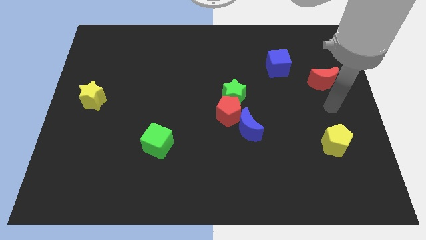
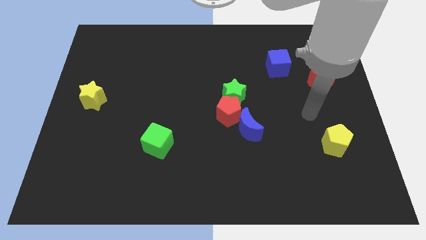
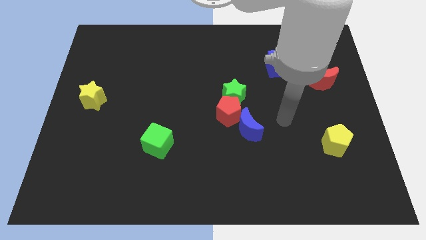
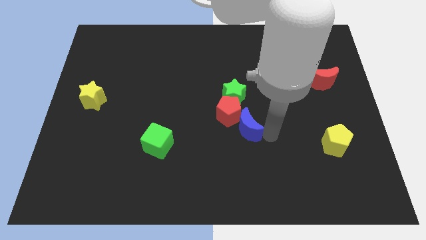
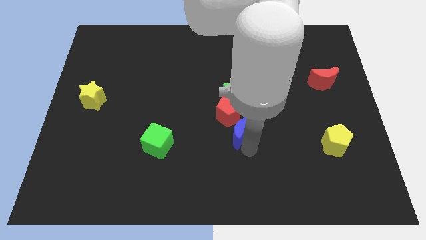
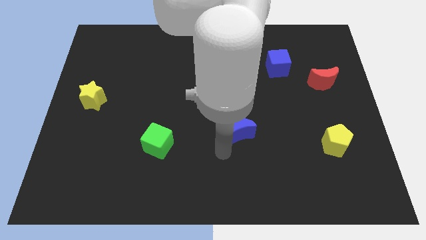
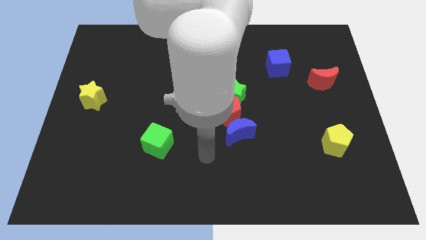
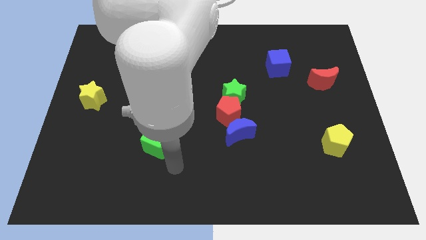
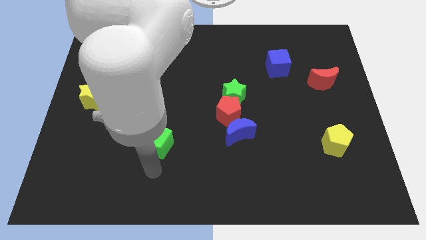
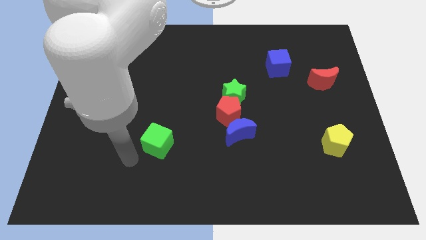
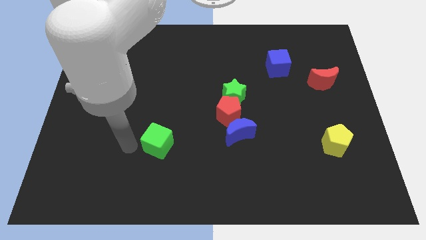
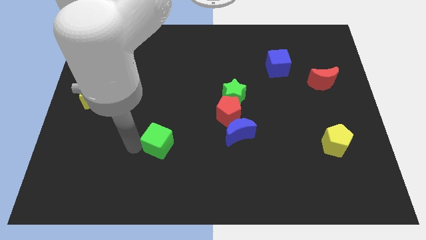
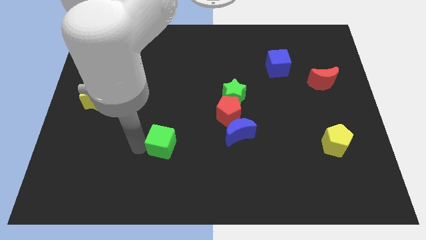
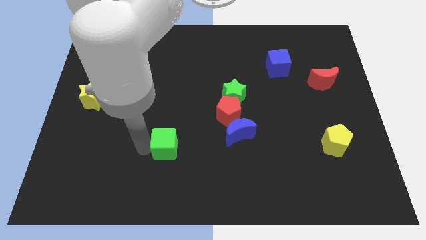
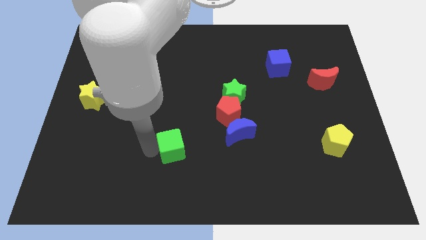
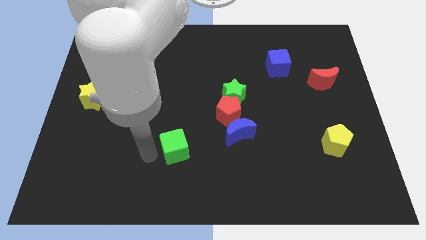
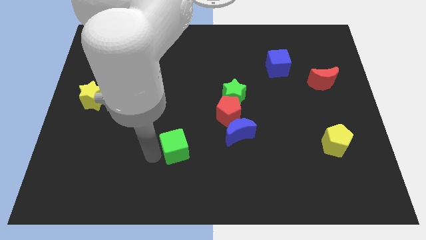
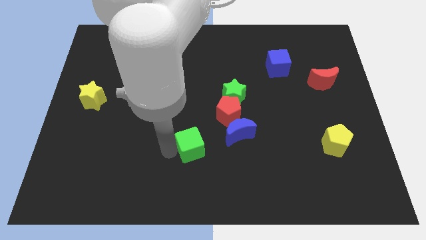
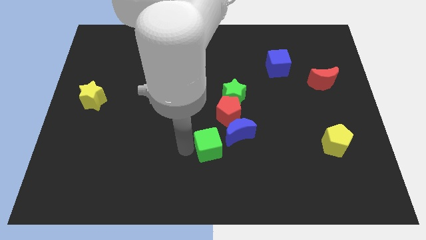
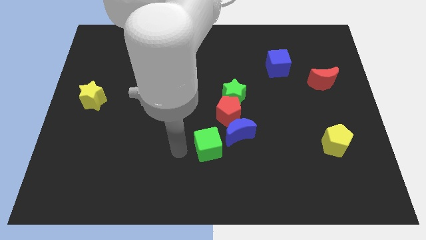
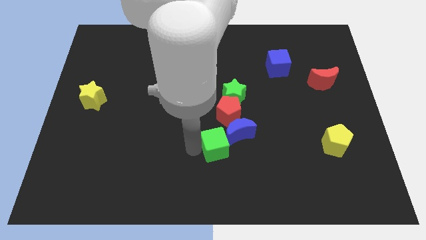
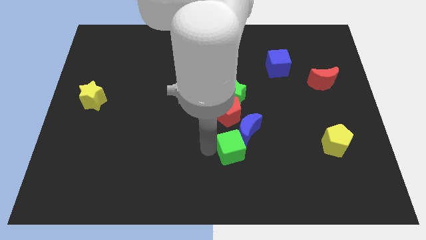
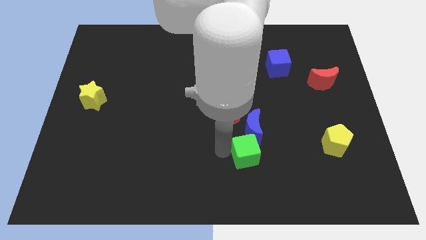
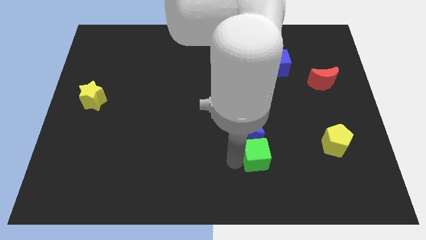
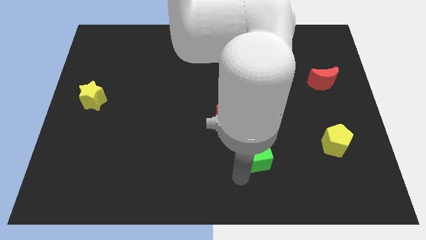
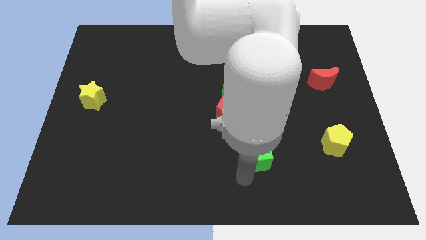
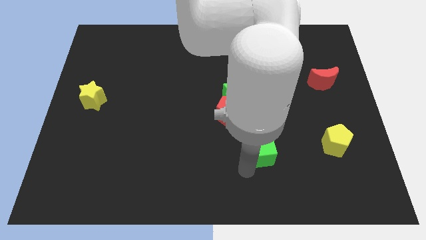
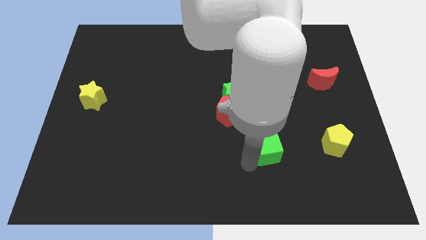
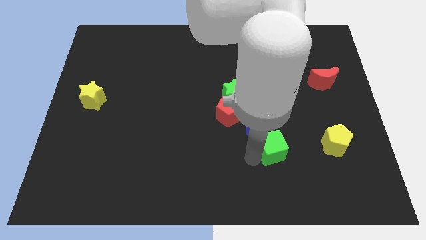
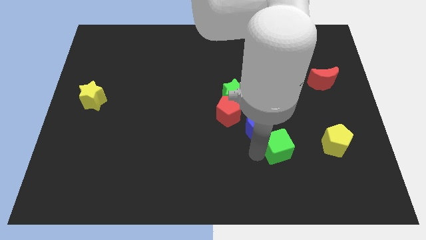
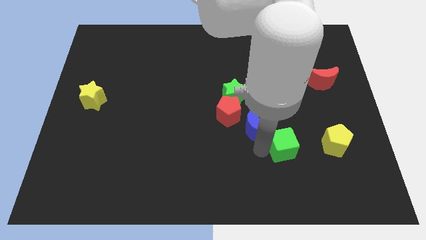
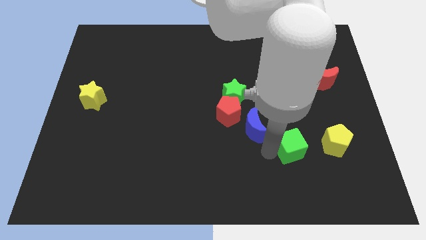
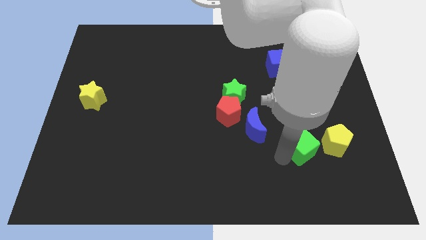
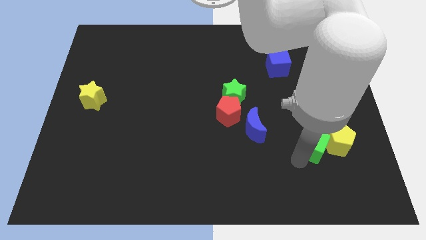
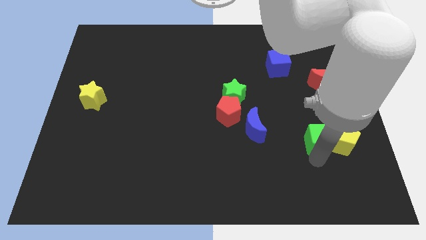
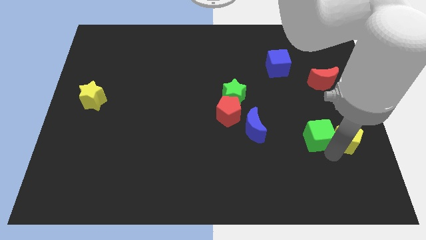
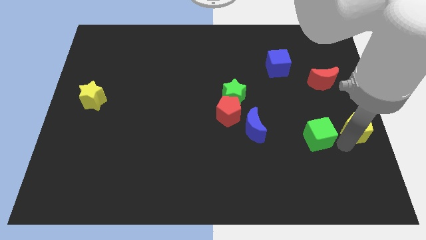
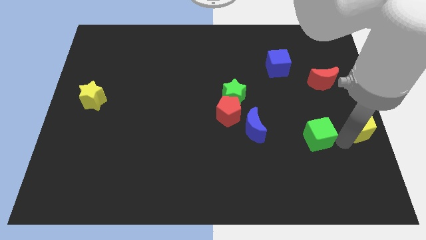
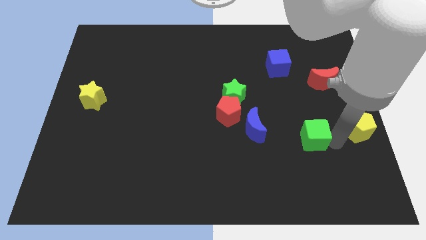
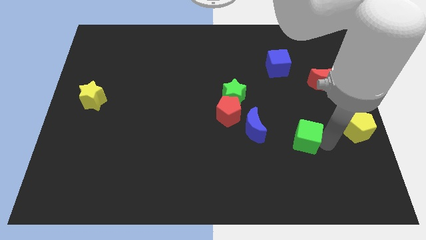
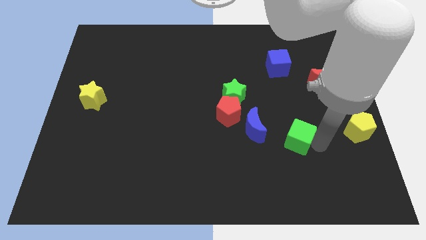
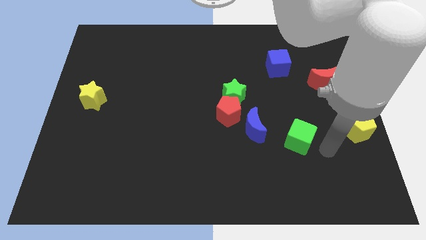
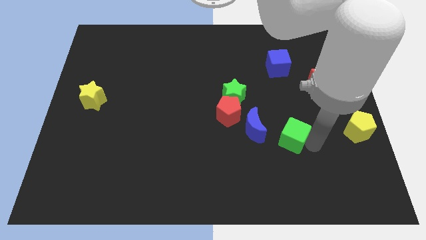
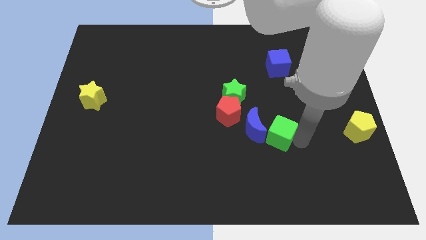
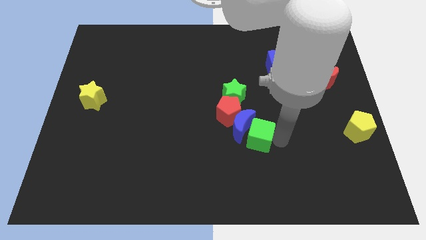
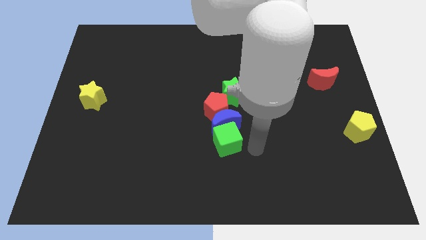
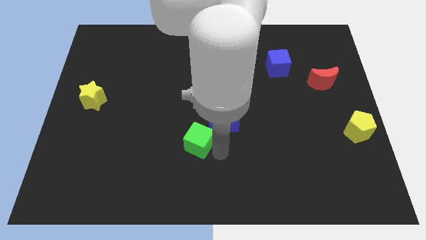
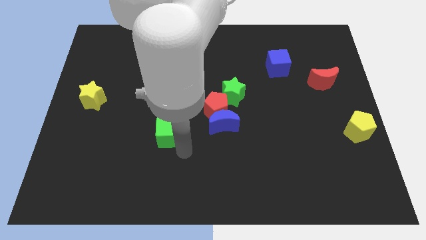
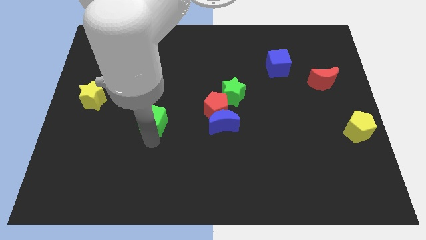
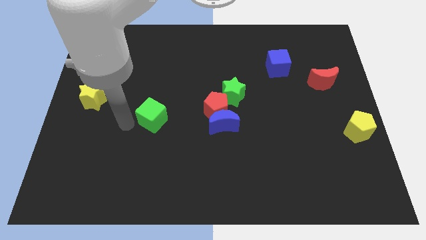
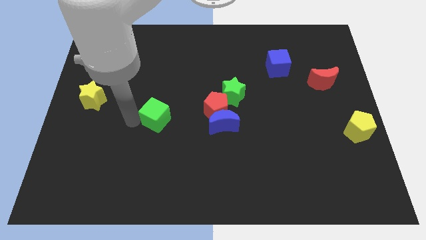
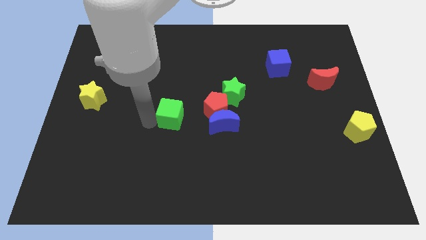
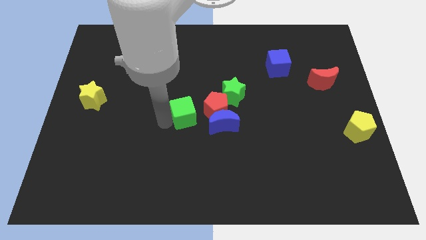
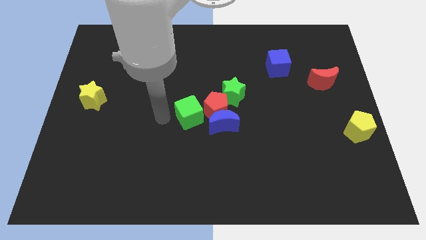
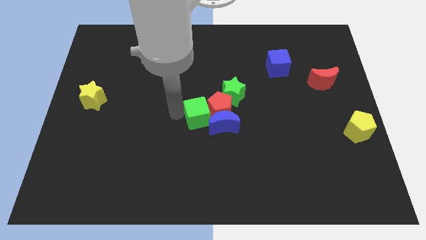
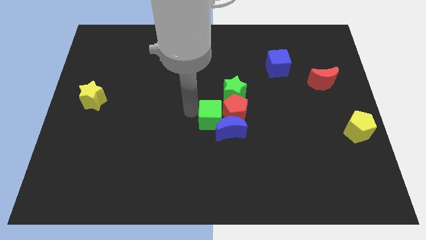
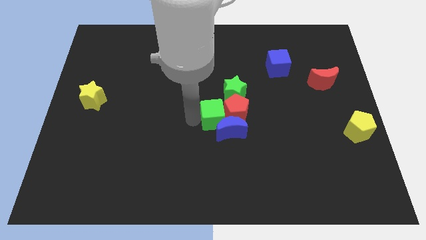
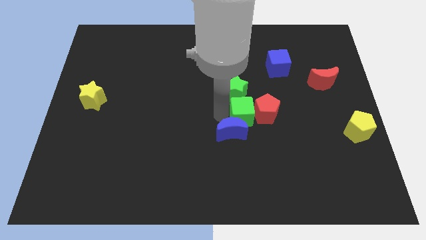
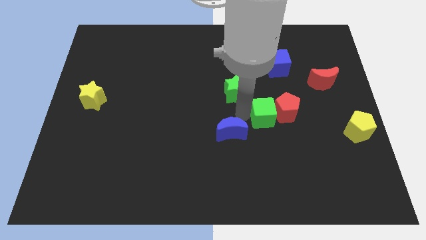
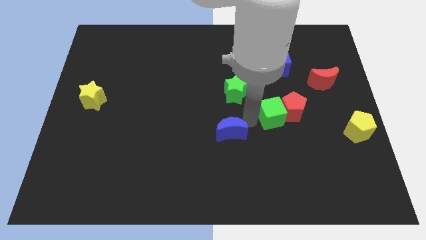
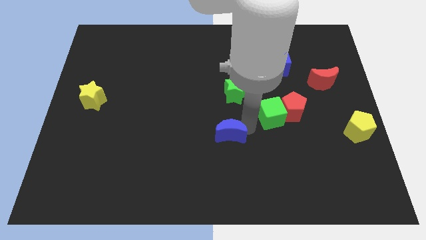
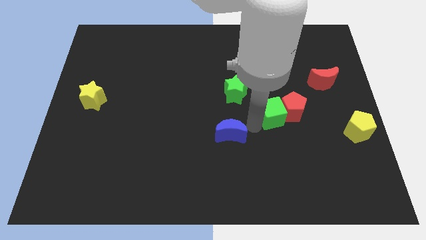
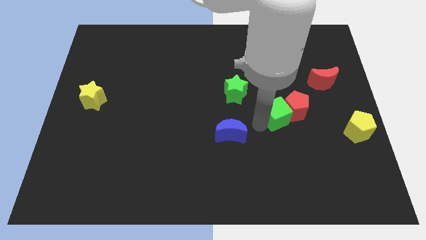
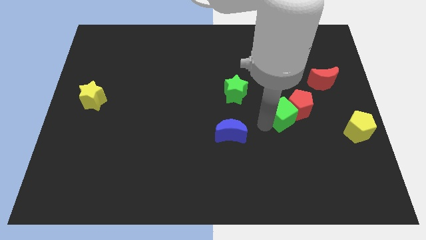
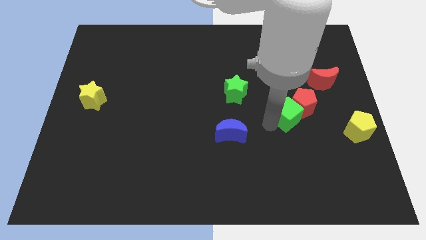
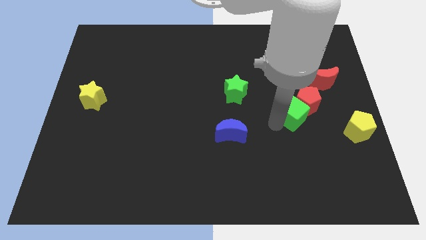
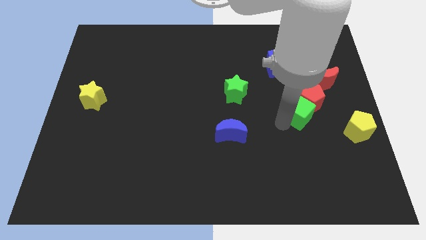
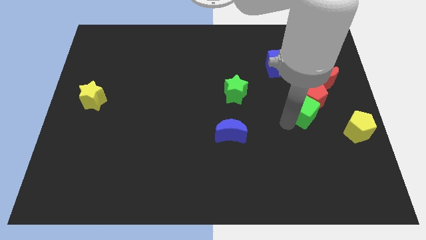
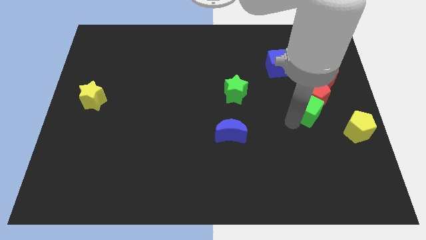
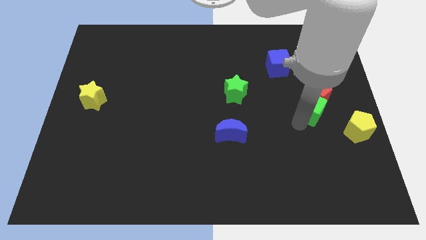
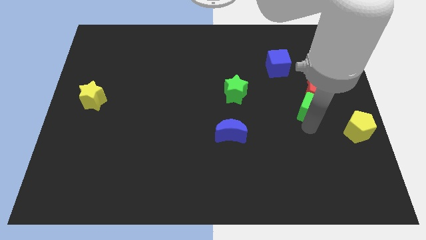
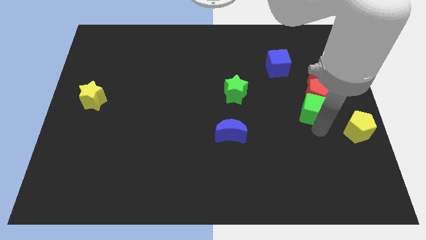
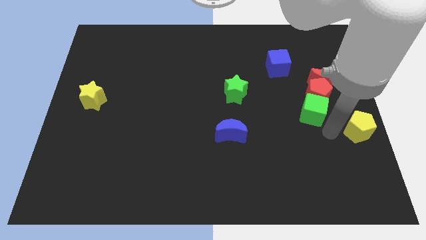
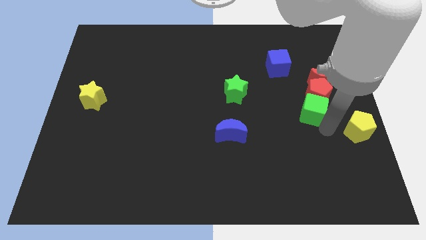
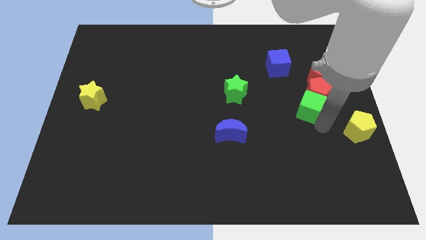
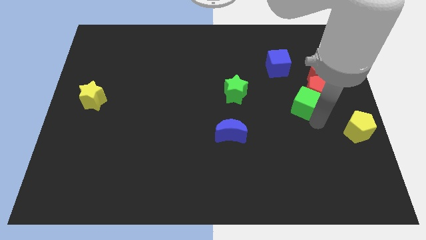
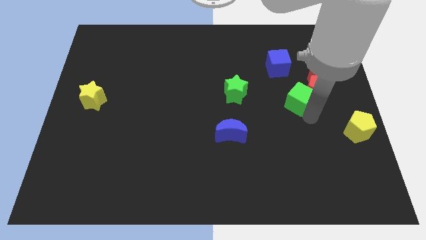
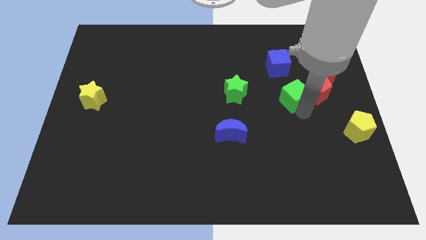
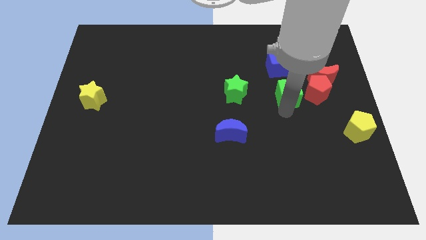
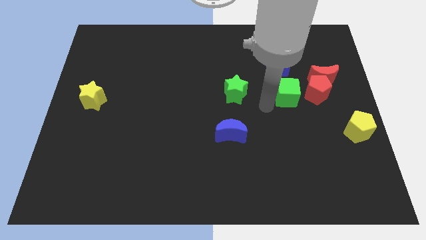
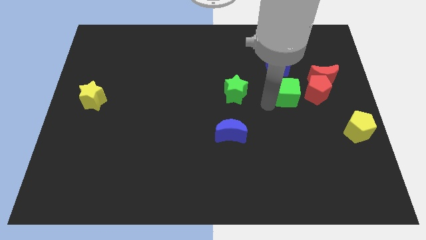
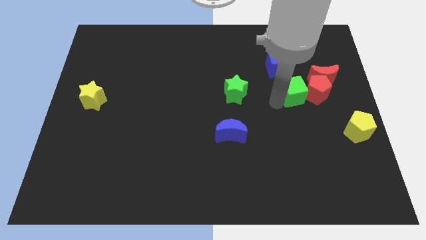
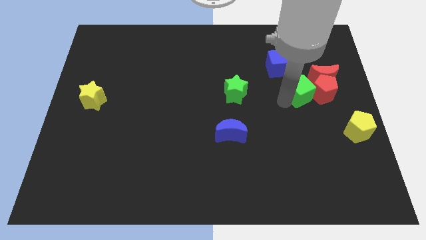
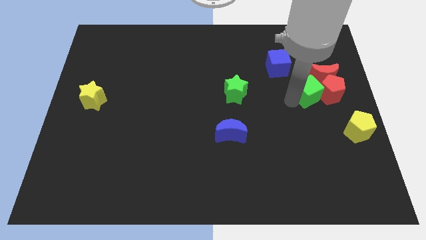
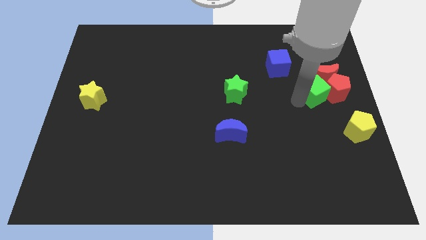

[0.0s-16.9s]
move the green cube close to the red moon
